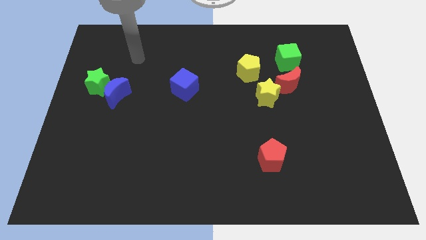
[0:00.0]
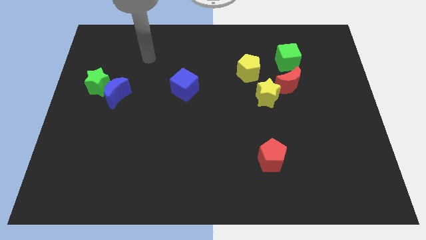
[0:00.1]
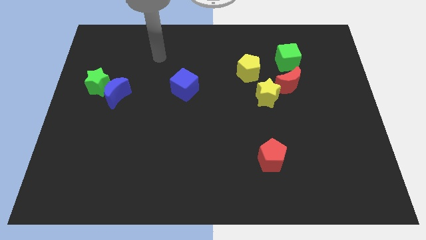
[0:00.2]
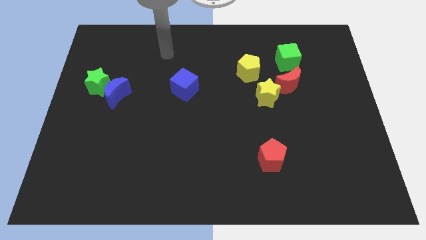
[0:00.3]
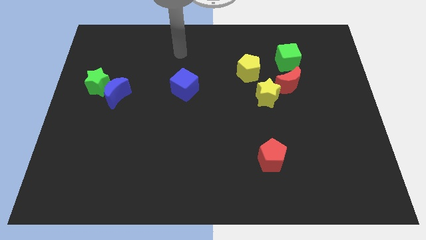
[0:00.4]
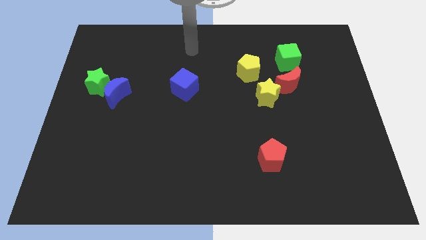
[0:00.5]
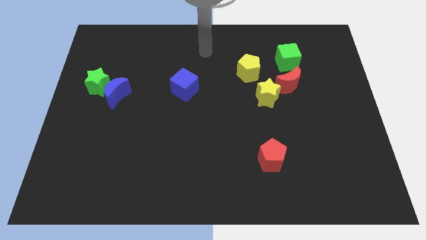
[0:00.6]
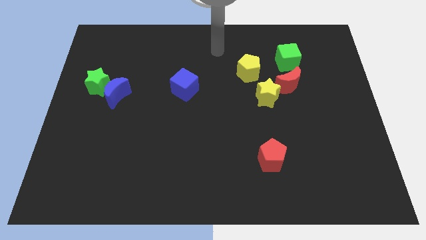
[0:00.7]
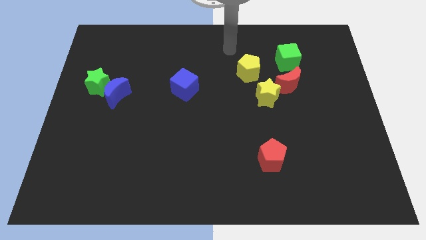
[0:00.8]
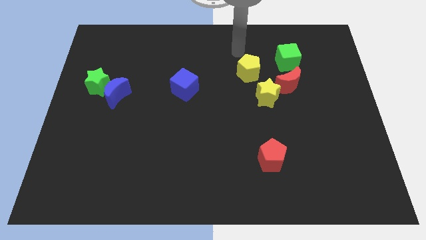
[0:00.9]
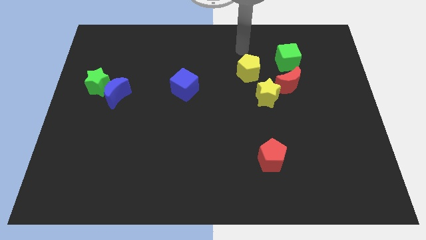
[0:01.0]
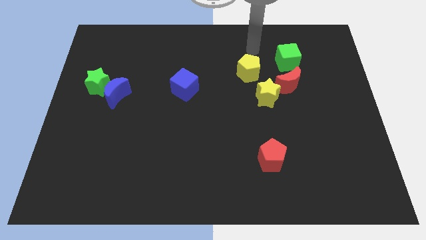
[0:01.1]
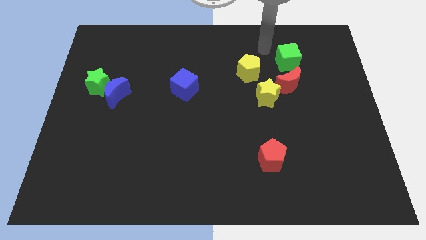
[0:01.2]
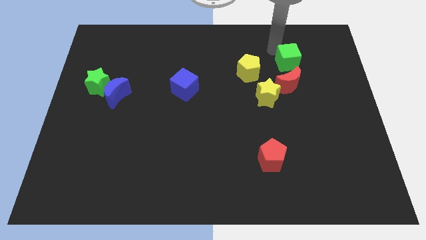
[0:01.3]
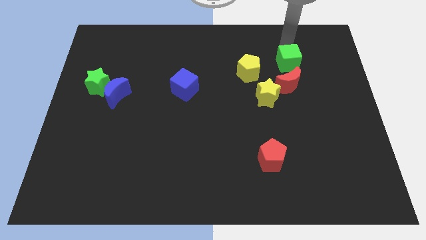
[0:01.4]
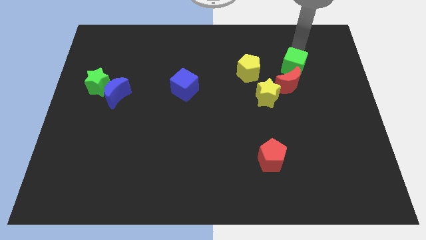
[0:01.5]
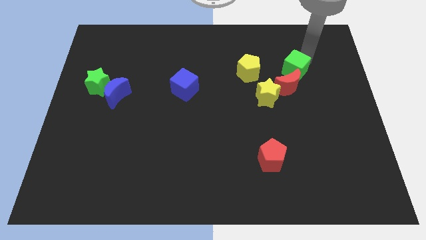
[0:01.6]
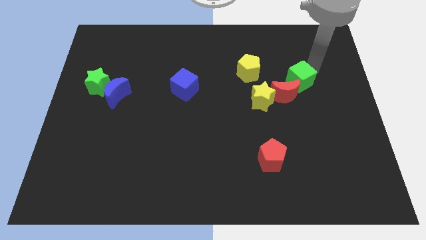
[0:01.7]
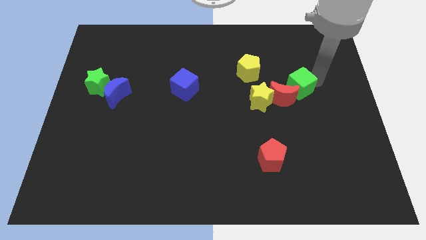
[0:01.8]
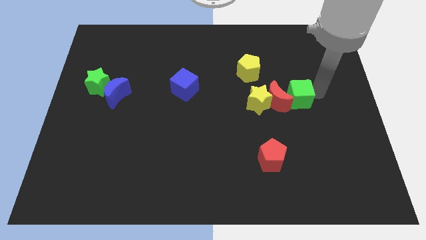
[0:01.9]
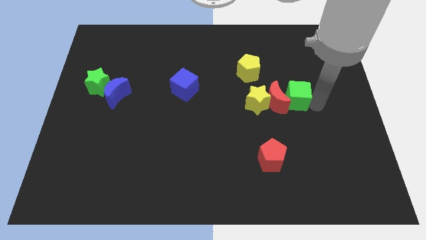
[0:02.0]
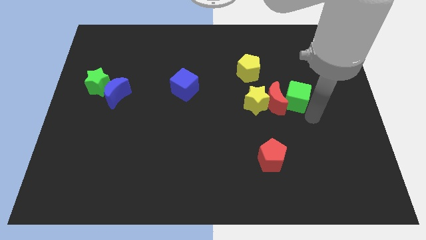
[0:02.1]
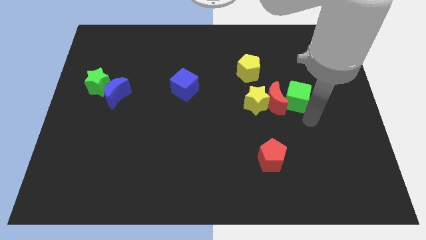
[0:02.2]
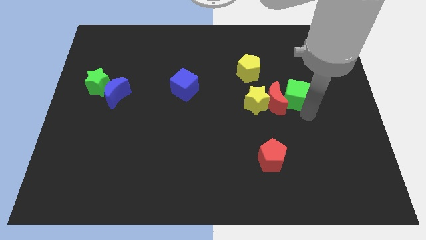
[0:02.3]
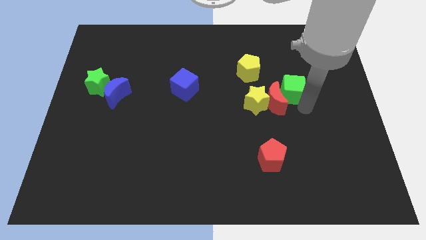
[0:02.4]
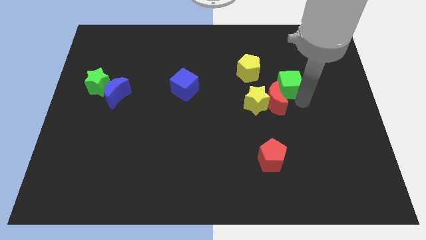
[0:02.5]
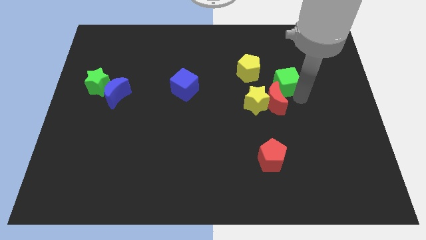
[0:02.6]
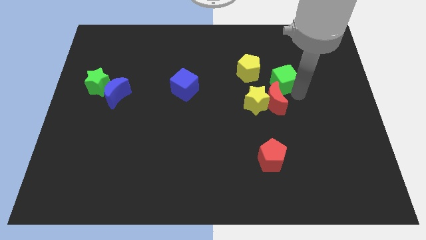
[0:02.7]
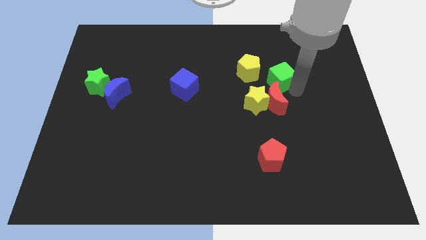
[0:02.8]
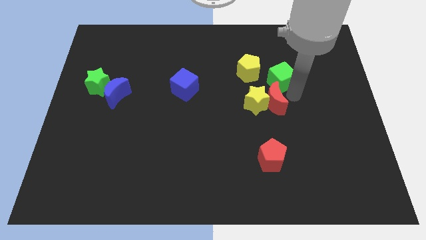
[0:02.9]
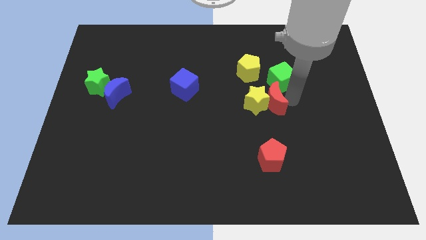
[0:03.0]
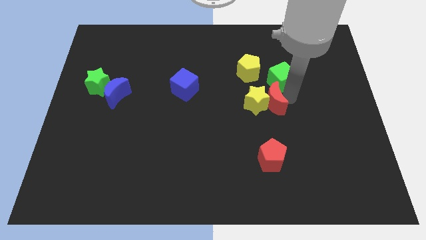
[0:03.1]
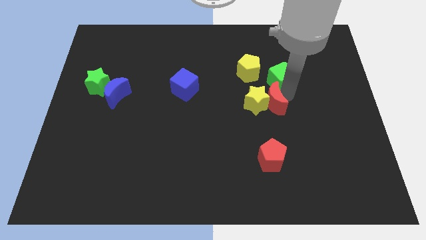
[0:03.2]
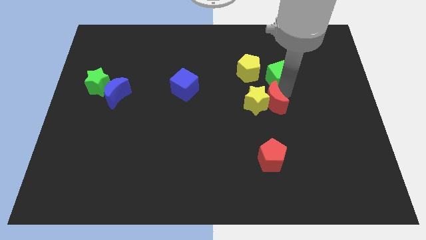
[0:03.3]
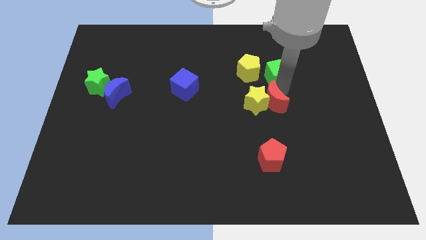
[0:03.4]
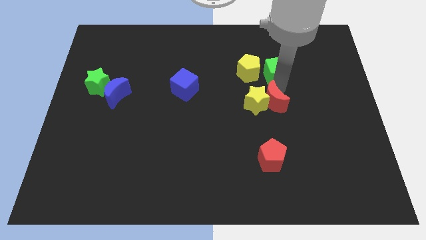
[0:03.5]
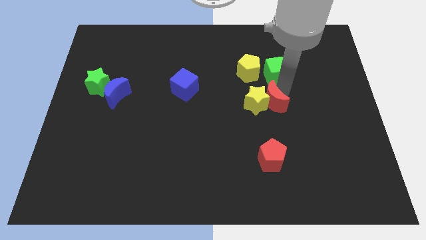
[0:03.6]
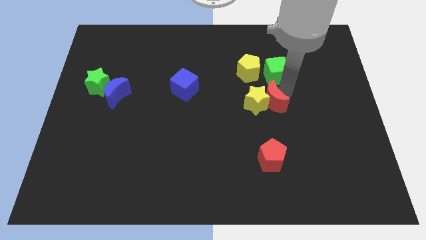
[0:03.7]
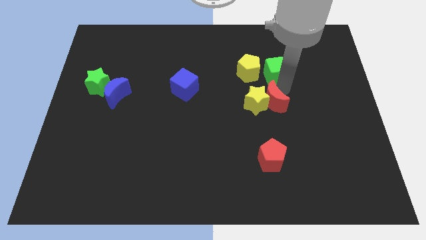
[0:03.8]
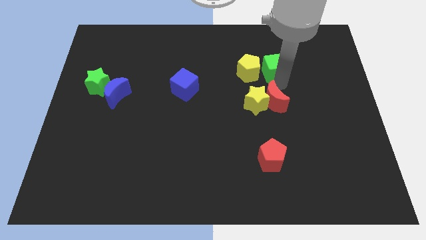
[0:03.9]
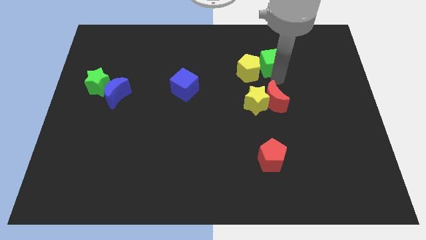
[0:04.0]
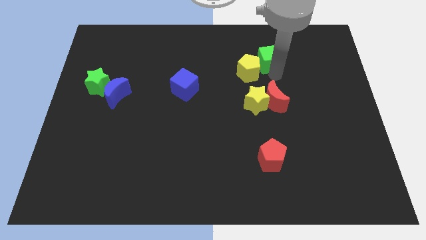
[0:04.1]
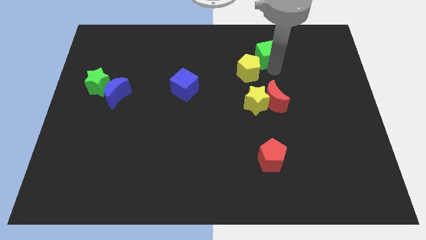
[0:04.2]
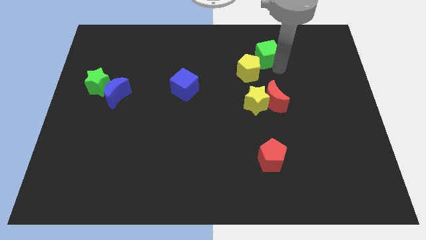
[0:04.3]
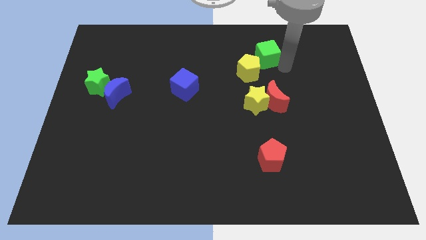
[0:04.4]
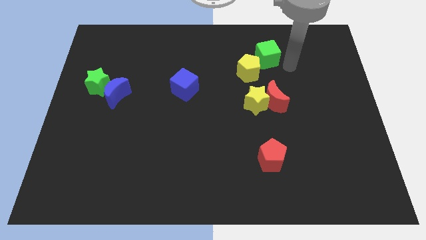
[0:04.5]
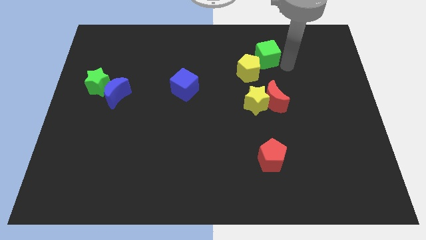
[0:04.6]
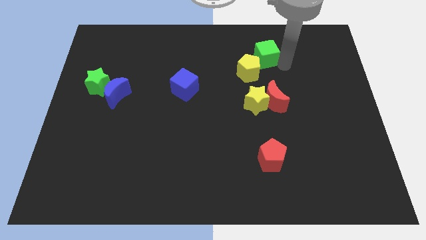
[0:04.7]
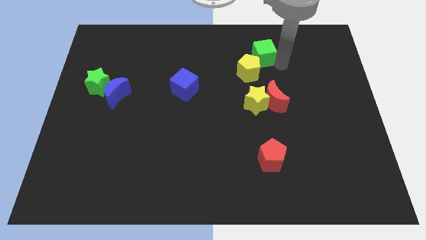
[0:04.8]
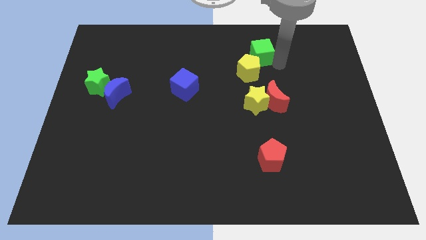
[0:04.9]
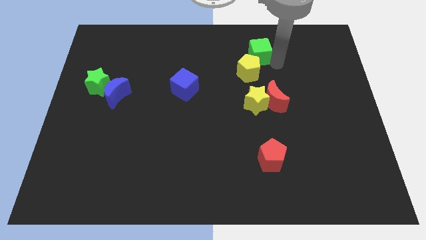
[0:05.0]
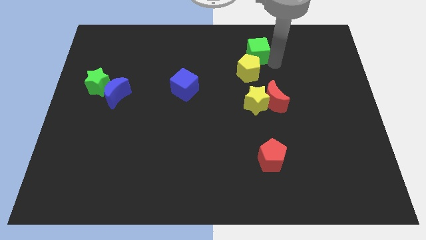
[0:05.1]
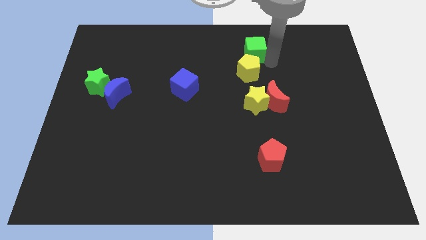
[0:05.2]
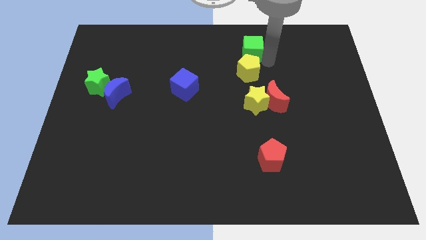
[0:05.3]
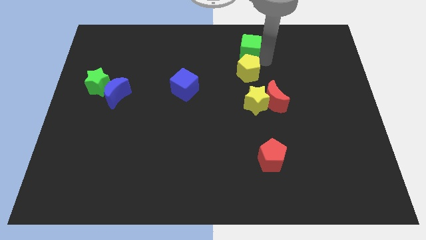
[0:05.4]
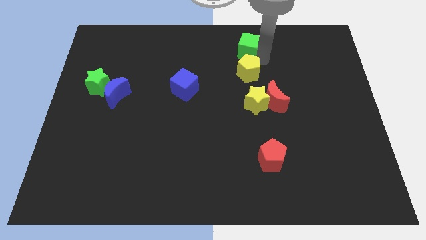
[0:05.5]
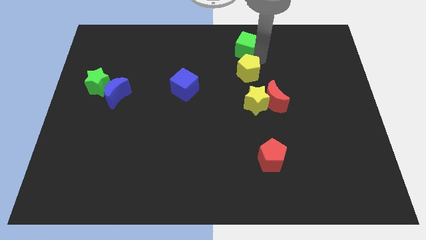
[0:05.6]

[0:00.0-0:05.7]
move the green cube to the towards your base
